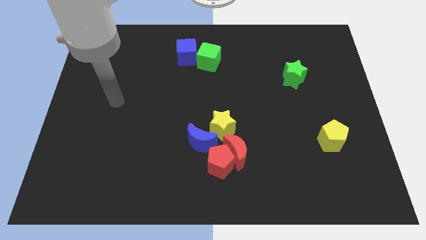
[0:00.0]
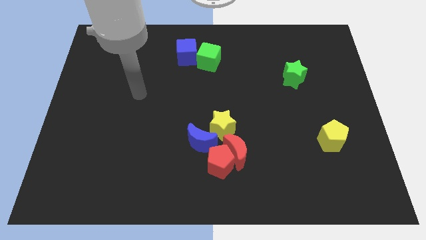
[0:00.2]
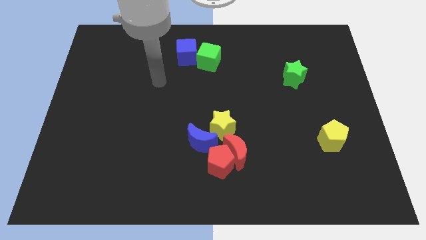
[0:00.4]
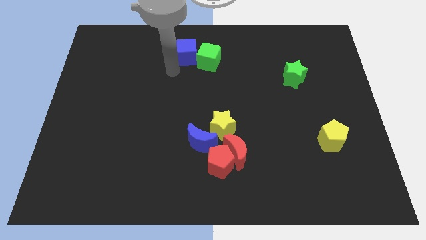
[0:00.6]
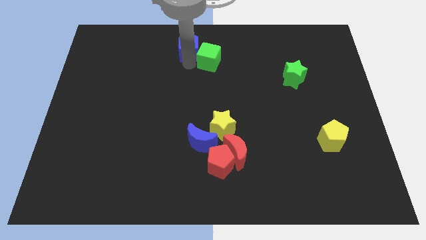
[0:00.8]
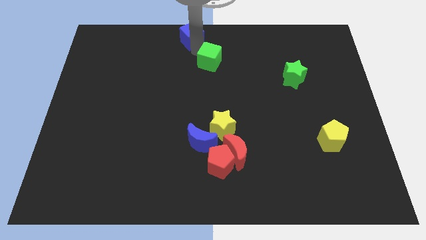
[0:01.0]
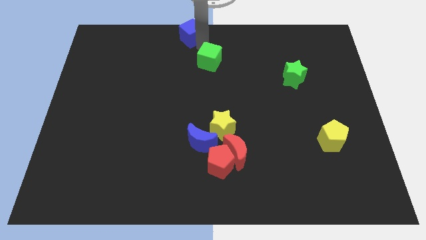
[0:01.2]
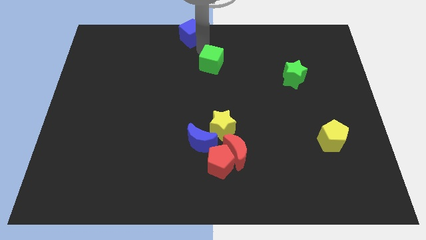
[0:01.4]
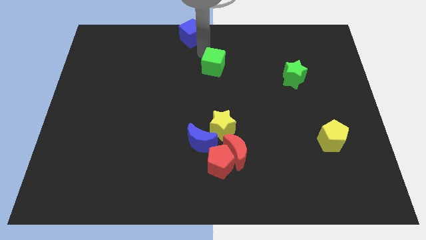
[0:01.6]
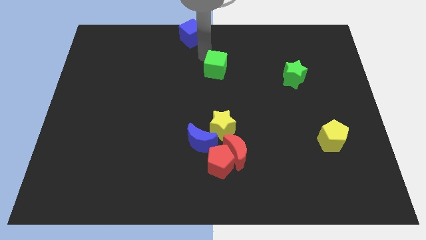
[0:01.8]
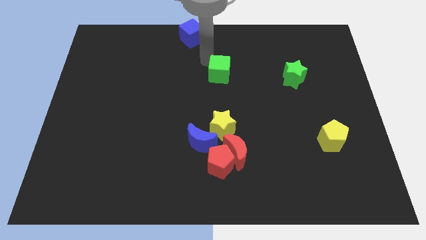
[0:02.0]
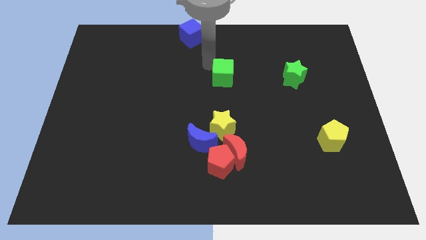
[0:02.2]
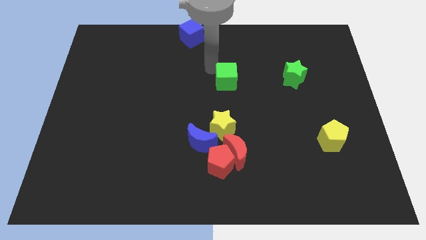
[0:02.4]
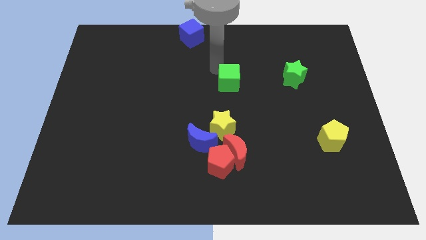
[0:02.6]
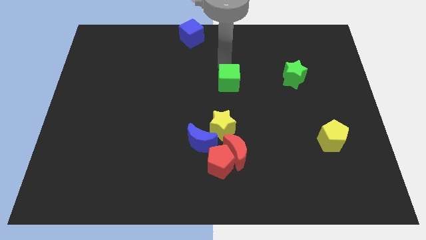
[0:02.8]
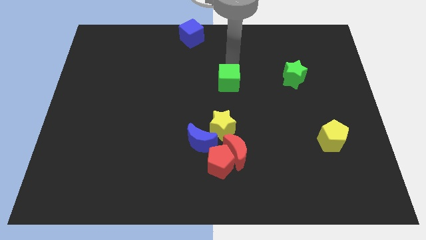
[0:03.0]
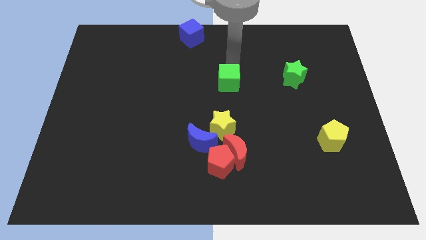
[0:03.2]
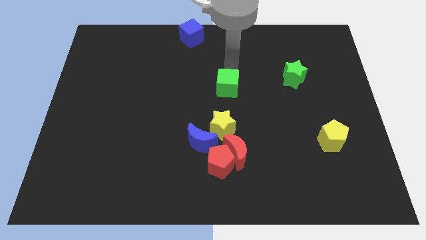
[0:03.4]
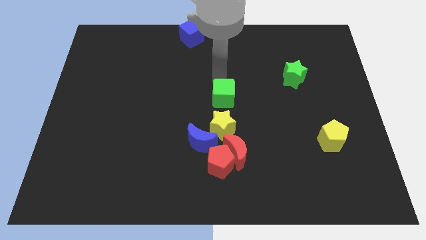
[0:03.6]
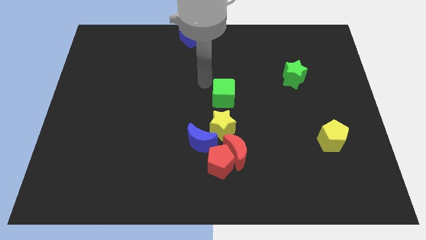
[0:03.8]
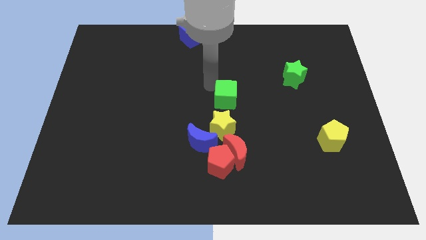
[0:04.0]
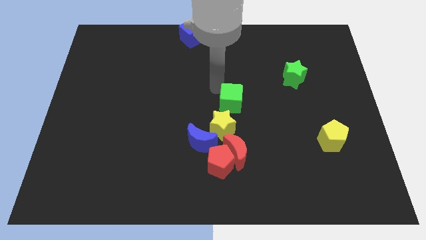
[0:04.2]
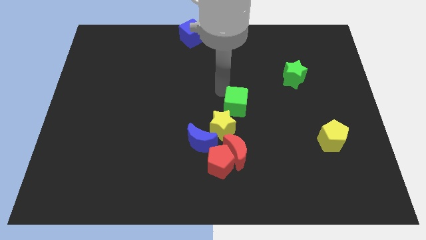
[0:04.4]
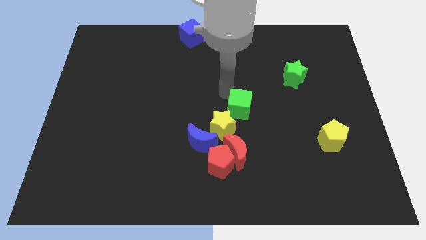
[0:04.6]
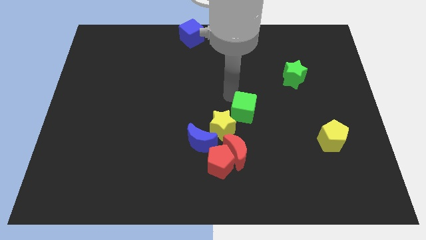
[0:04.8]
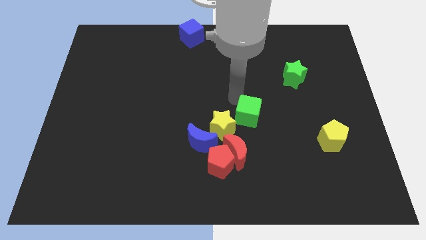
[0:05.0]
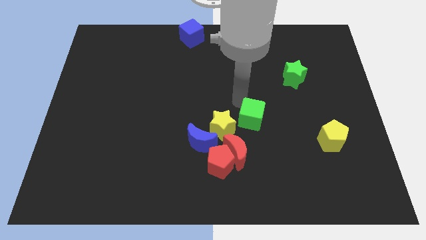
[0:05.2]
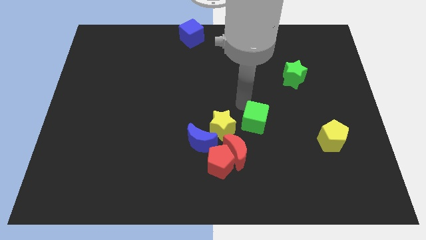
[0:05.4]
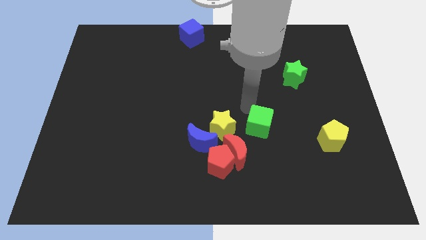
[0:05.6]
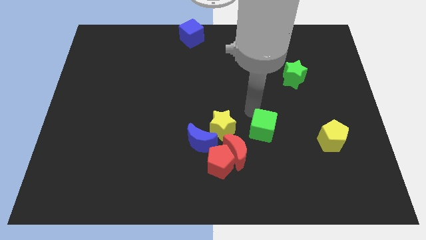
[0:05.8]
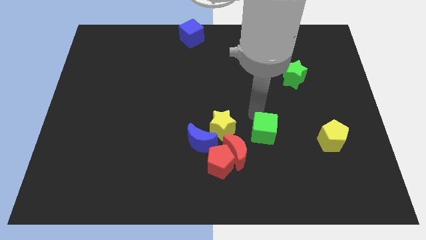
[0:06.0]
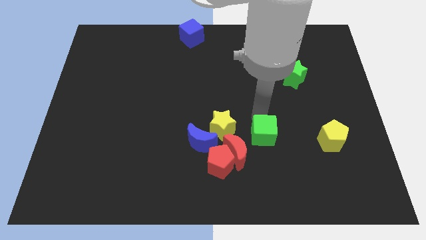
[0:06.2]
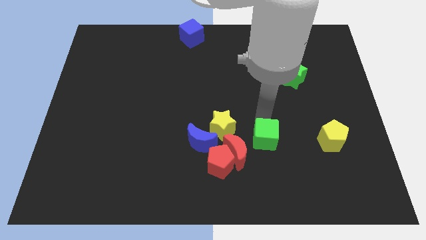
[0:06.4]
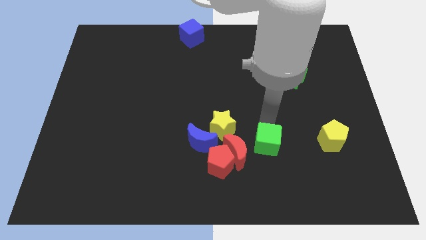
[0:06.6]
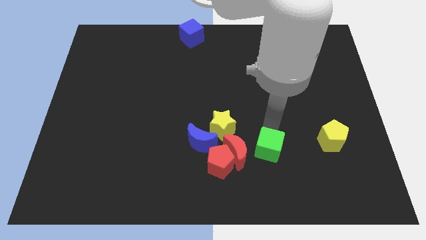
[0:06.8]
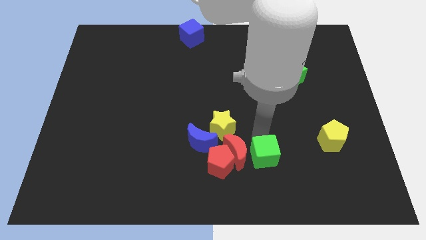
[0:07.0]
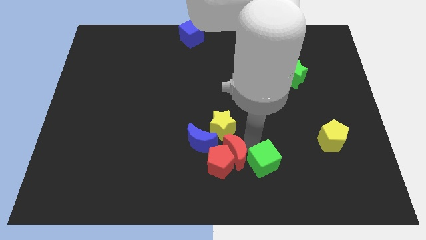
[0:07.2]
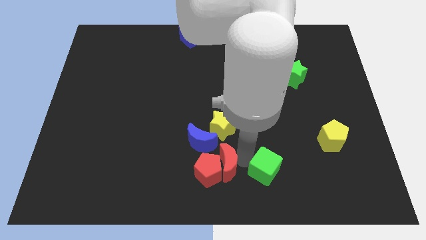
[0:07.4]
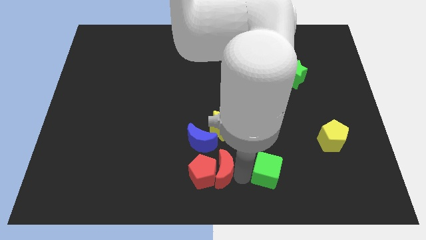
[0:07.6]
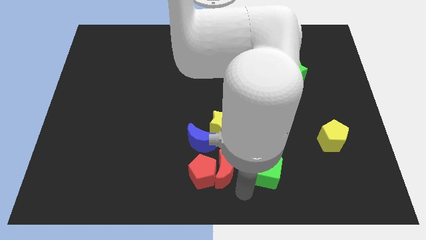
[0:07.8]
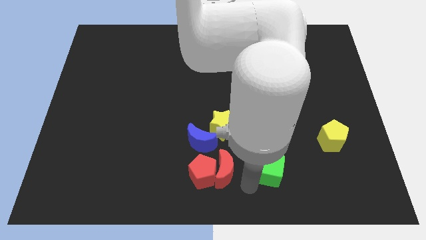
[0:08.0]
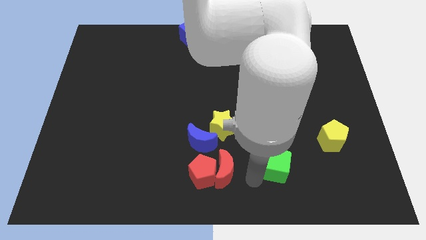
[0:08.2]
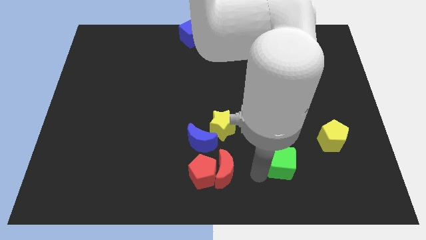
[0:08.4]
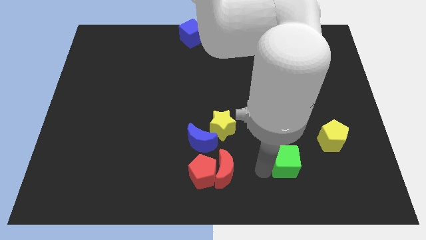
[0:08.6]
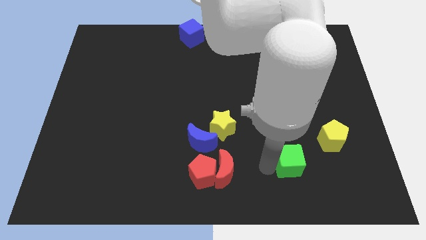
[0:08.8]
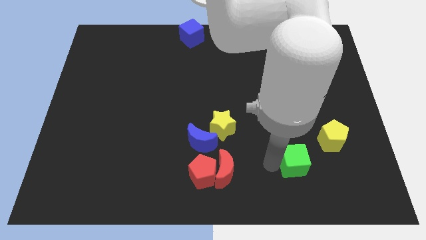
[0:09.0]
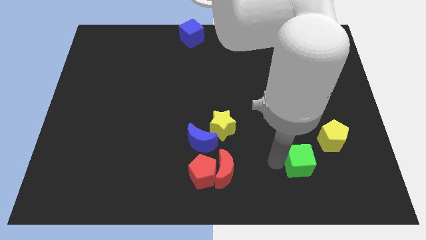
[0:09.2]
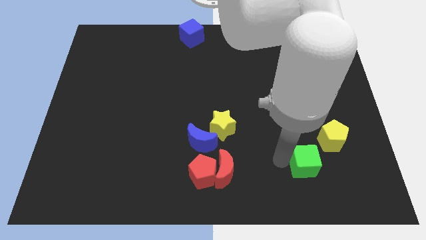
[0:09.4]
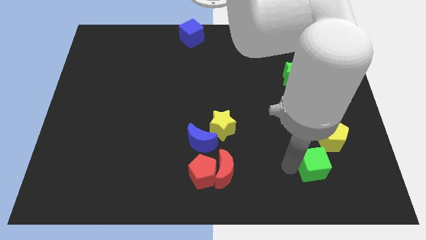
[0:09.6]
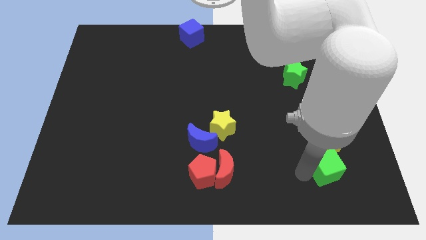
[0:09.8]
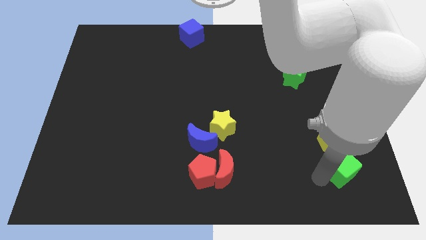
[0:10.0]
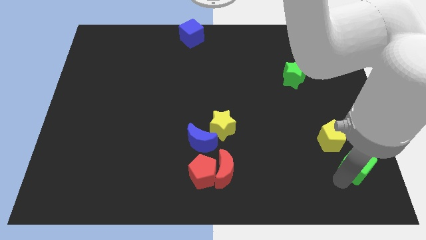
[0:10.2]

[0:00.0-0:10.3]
move the green cube to the bottom right of the board

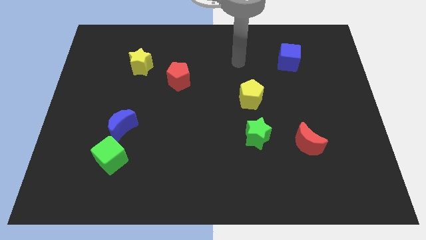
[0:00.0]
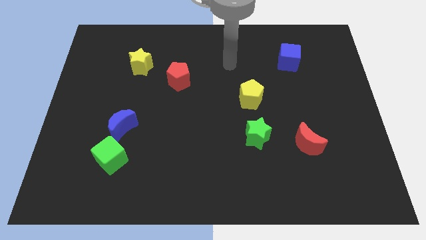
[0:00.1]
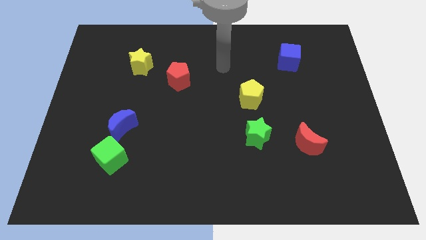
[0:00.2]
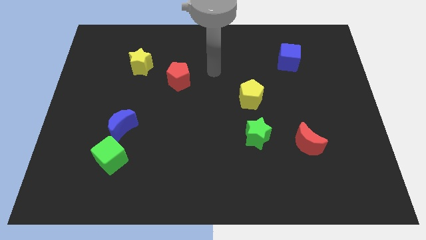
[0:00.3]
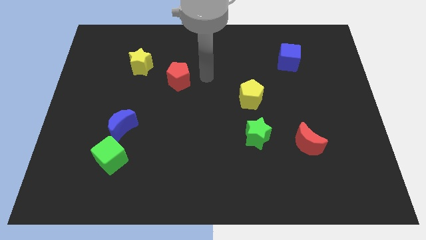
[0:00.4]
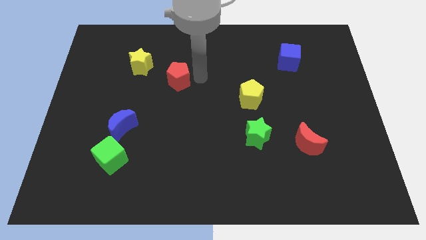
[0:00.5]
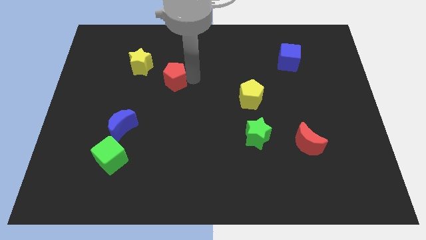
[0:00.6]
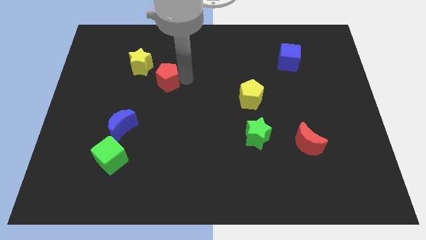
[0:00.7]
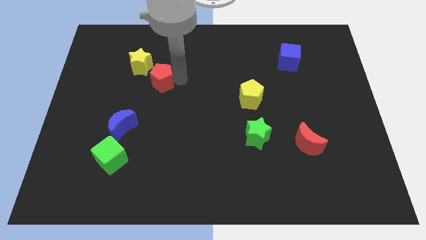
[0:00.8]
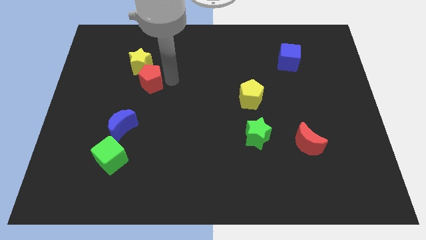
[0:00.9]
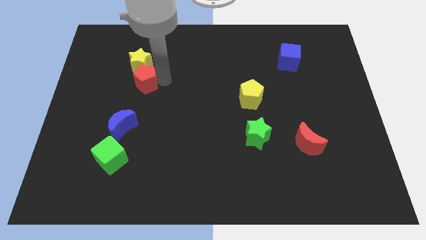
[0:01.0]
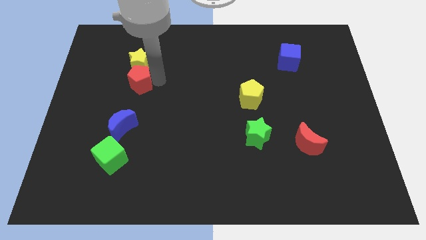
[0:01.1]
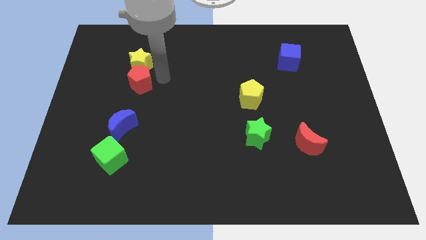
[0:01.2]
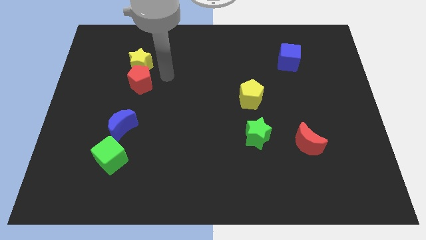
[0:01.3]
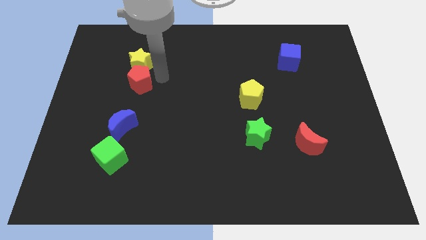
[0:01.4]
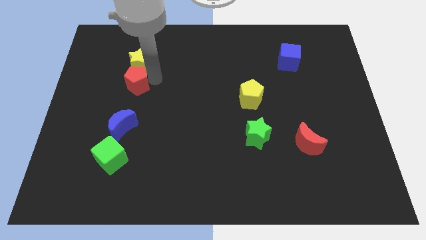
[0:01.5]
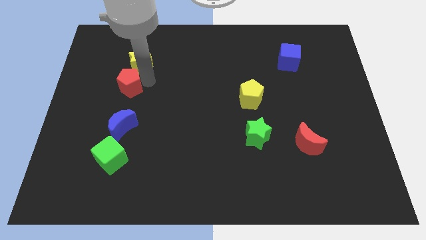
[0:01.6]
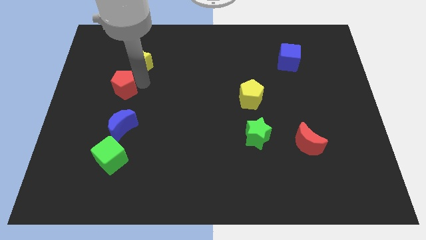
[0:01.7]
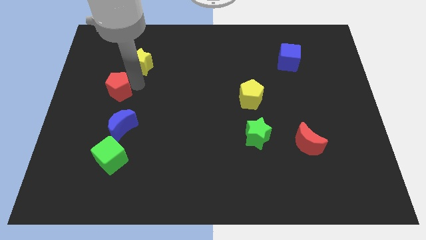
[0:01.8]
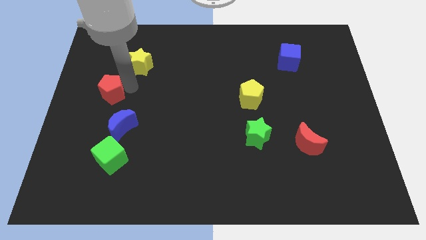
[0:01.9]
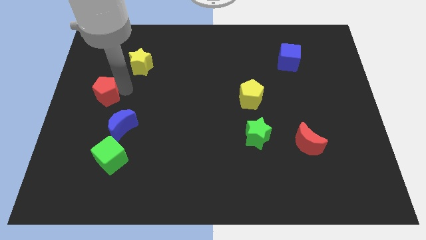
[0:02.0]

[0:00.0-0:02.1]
slide the red pentagon to the center left

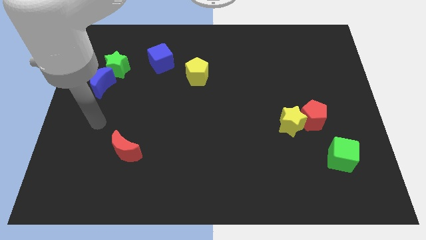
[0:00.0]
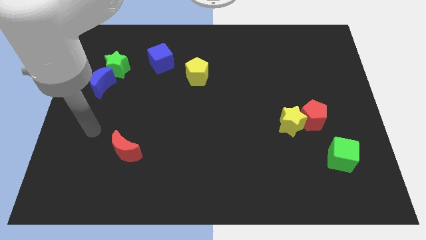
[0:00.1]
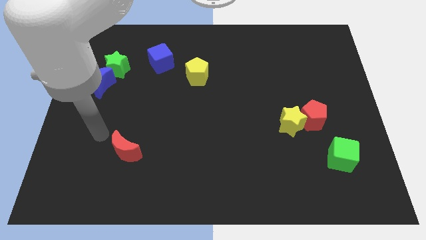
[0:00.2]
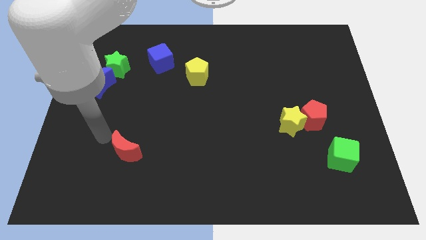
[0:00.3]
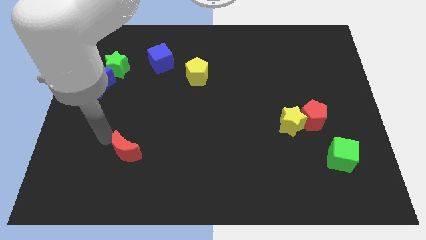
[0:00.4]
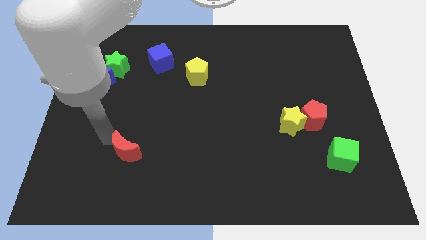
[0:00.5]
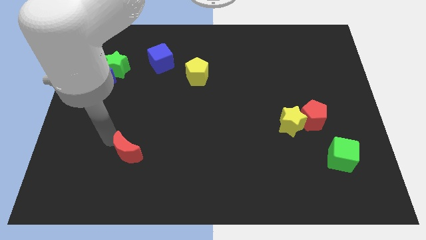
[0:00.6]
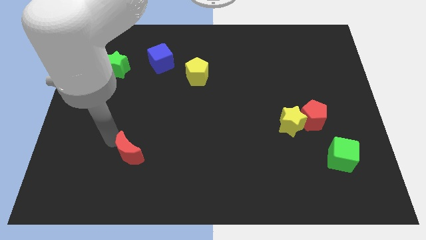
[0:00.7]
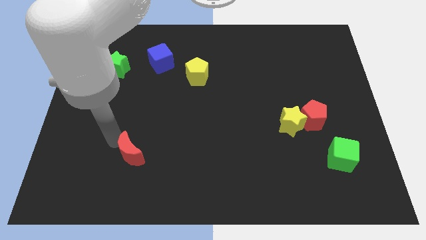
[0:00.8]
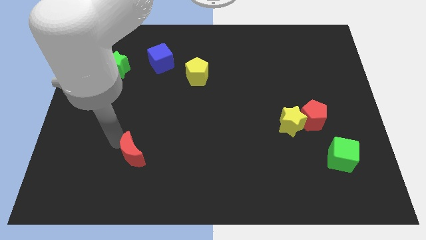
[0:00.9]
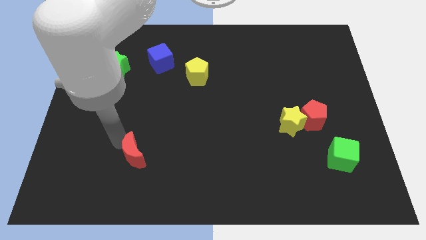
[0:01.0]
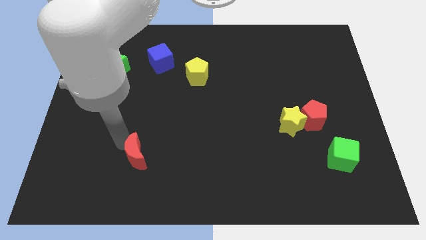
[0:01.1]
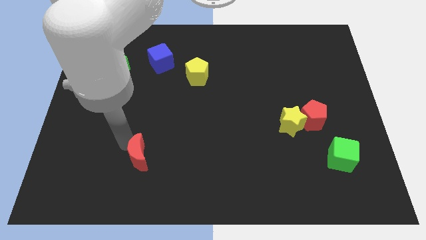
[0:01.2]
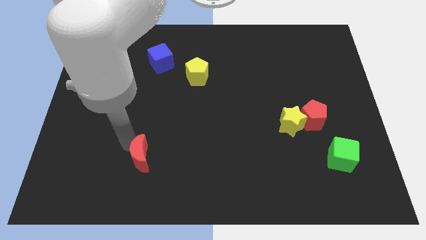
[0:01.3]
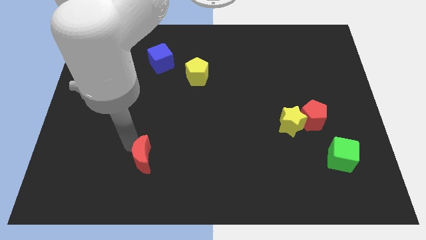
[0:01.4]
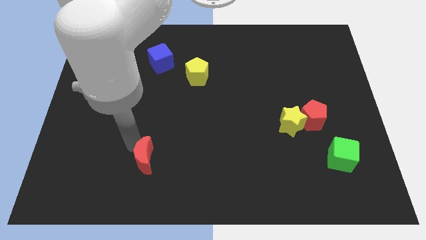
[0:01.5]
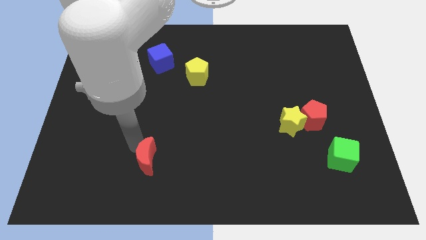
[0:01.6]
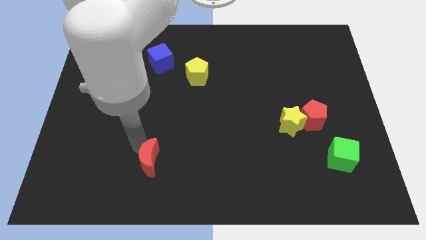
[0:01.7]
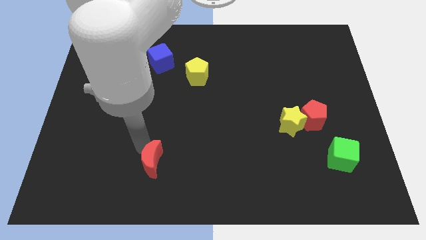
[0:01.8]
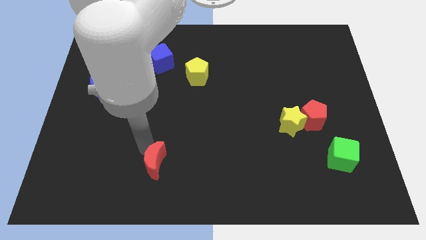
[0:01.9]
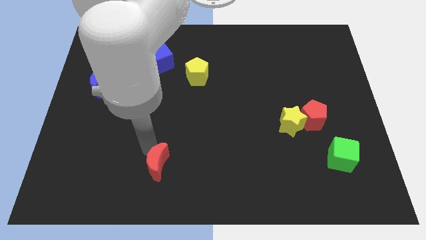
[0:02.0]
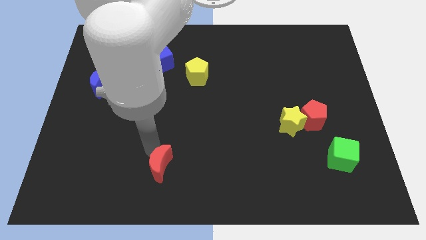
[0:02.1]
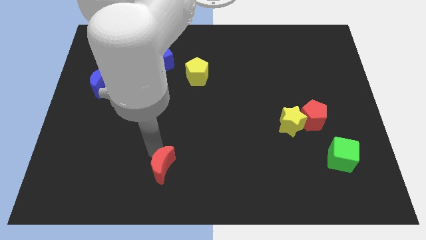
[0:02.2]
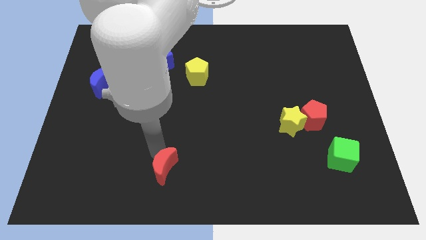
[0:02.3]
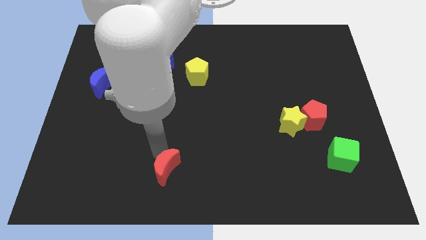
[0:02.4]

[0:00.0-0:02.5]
push the red moon to the bottom
